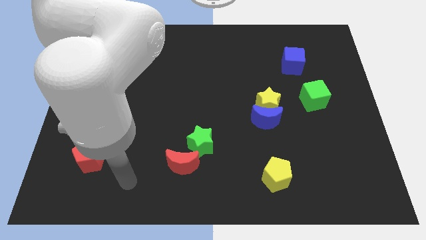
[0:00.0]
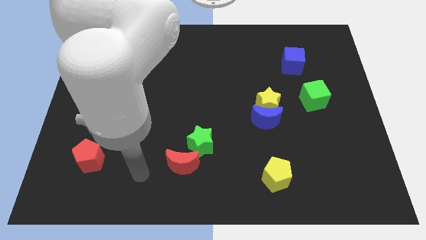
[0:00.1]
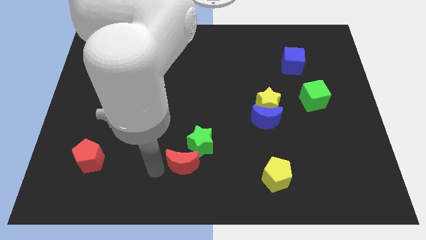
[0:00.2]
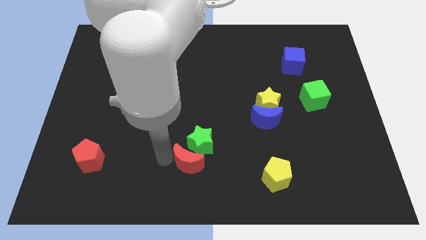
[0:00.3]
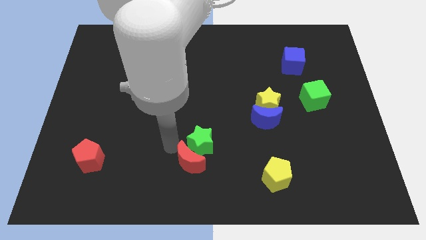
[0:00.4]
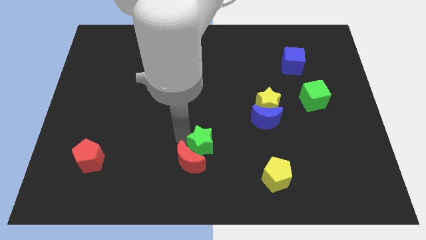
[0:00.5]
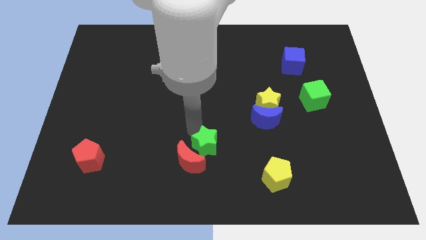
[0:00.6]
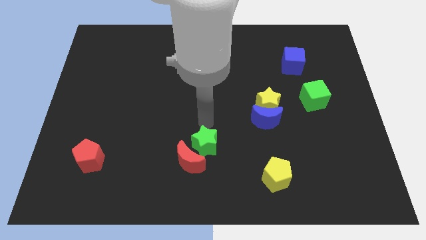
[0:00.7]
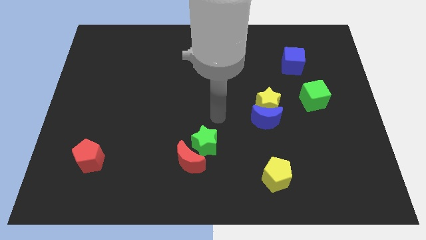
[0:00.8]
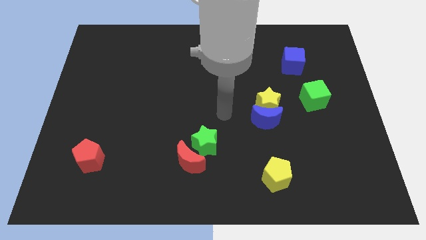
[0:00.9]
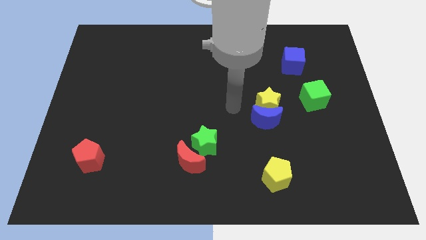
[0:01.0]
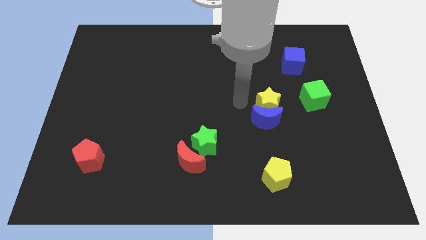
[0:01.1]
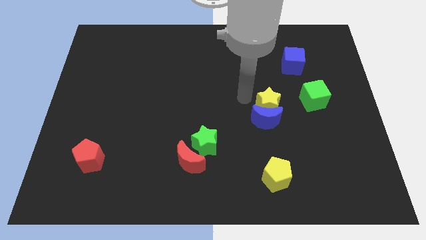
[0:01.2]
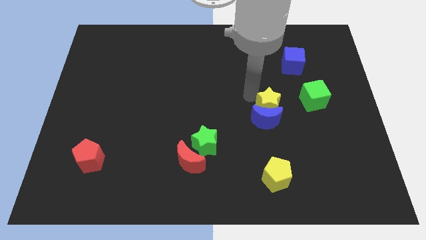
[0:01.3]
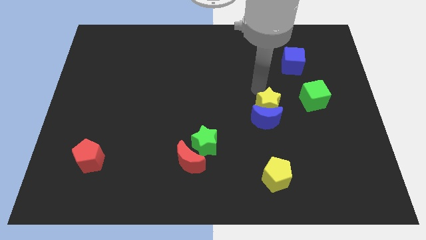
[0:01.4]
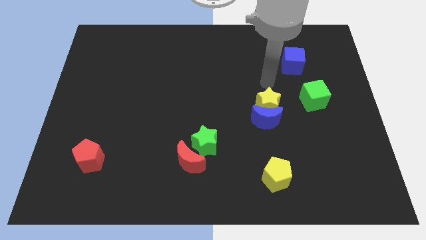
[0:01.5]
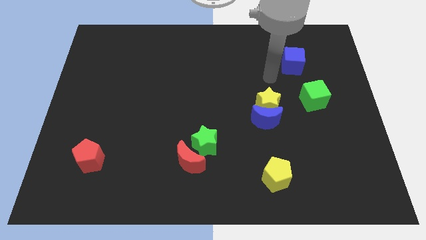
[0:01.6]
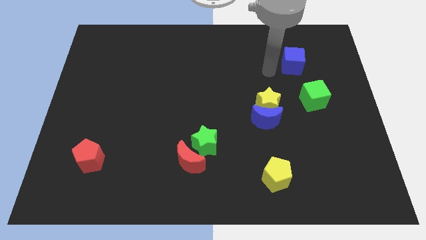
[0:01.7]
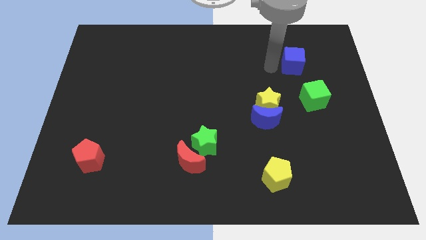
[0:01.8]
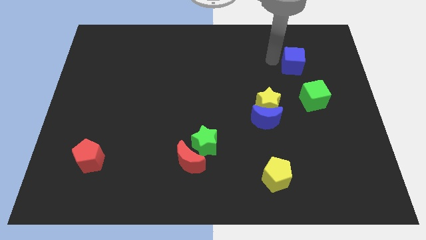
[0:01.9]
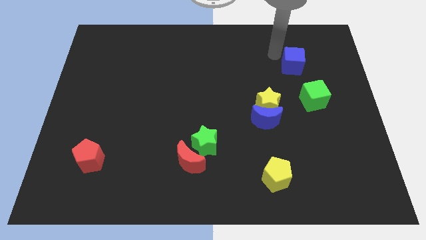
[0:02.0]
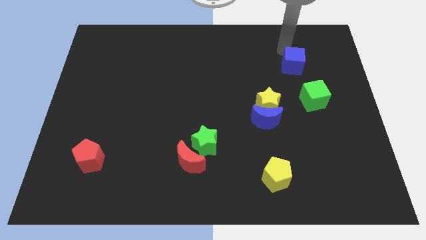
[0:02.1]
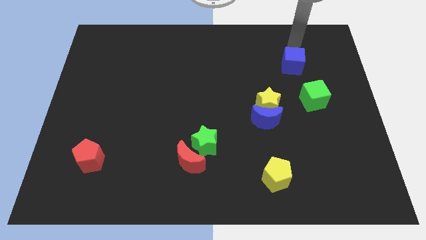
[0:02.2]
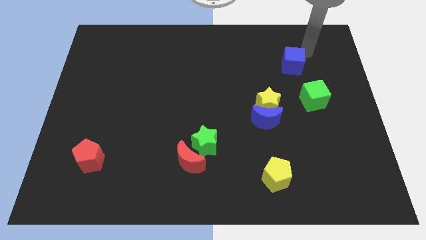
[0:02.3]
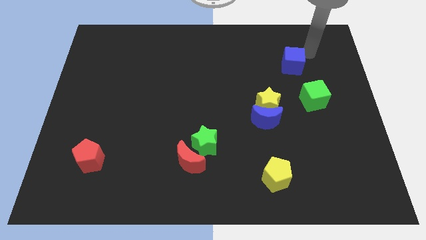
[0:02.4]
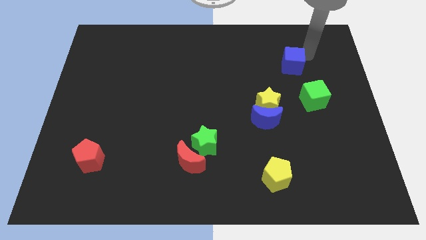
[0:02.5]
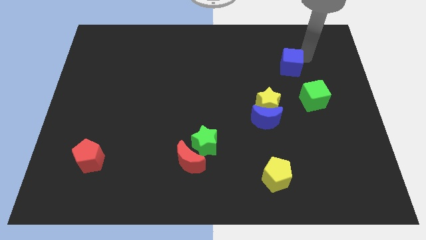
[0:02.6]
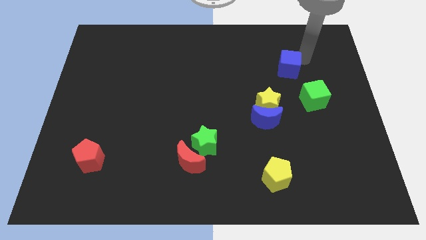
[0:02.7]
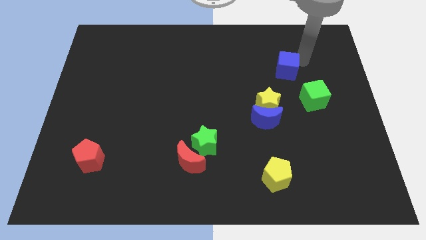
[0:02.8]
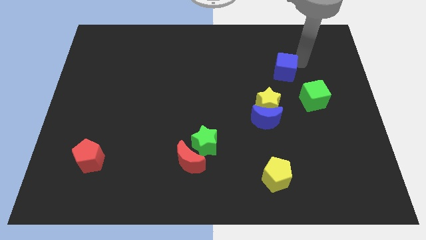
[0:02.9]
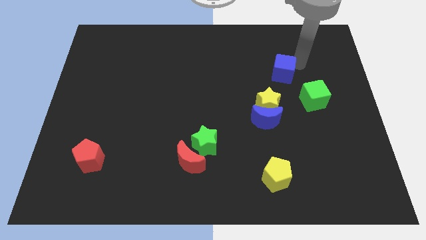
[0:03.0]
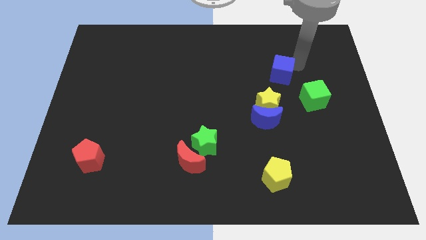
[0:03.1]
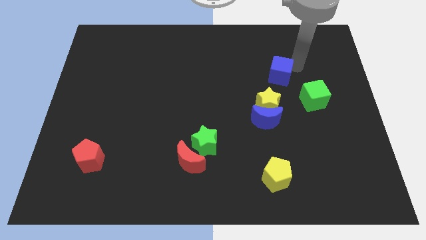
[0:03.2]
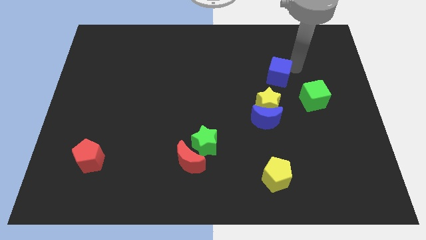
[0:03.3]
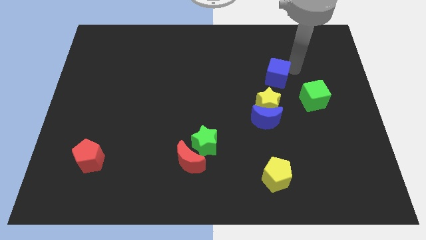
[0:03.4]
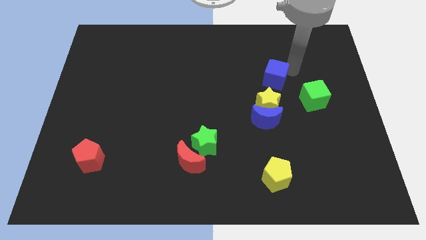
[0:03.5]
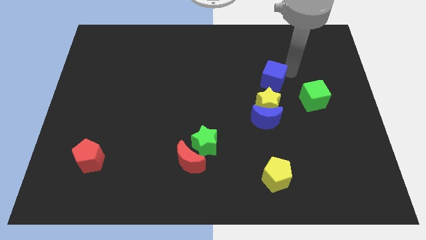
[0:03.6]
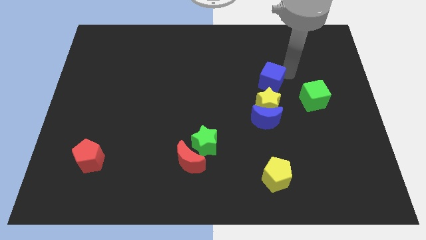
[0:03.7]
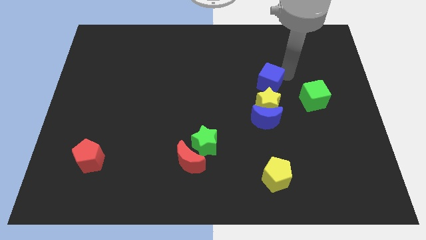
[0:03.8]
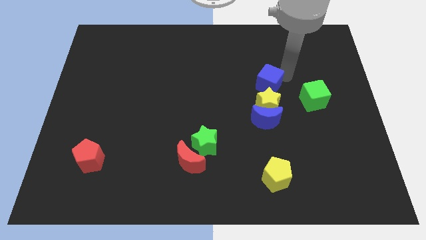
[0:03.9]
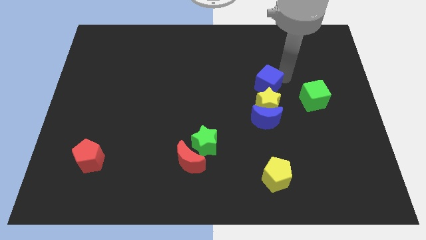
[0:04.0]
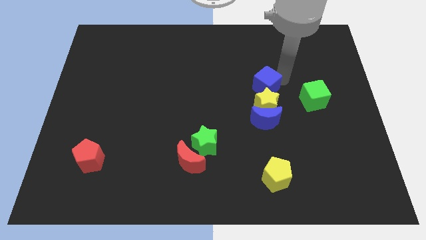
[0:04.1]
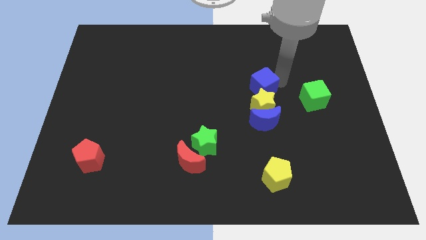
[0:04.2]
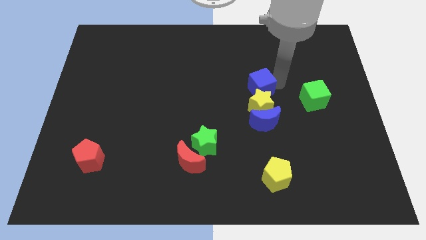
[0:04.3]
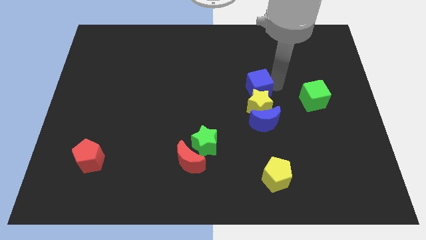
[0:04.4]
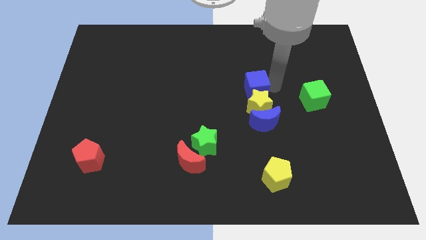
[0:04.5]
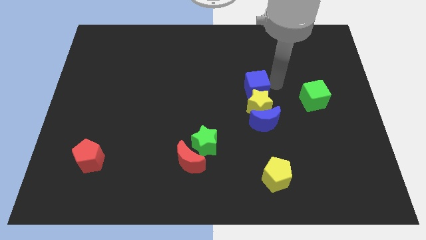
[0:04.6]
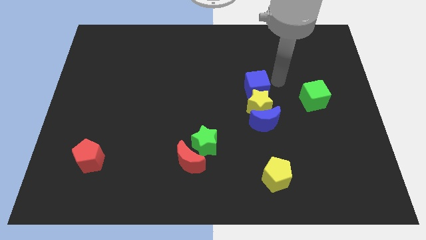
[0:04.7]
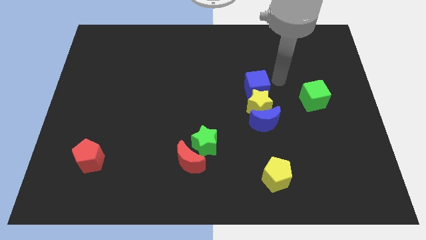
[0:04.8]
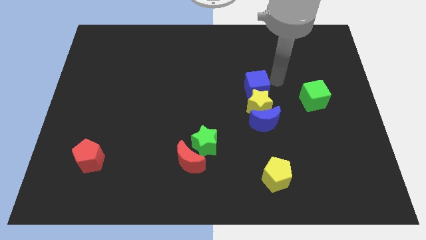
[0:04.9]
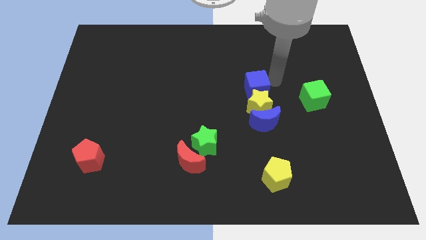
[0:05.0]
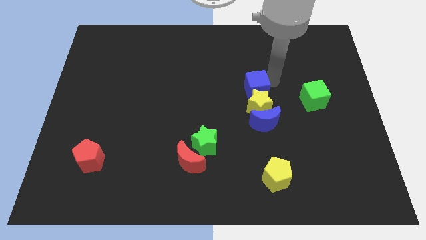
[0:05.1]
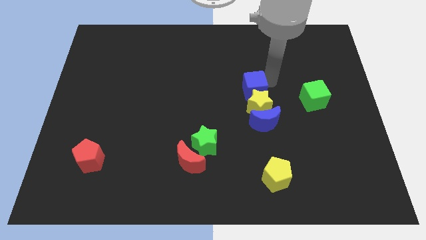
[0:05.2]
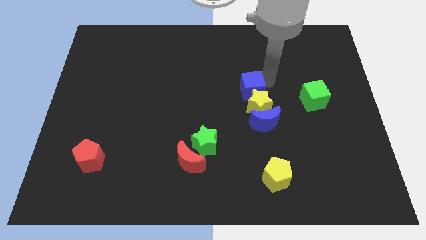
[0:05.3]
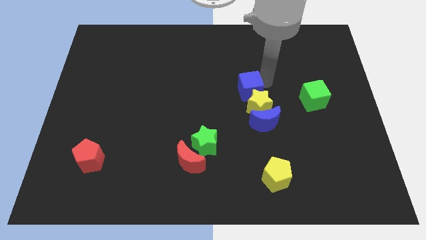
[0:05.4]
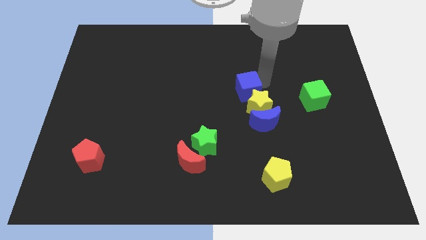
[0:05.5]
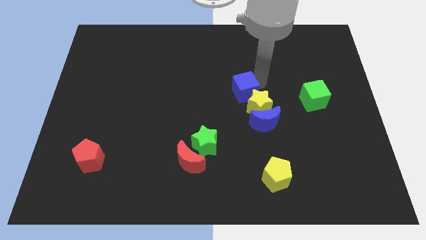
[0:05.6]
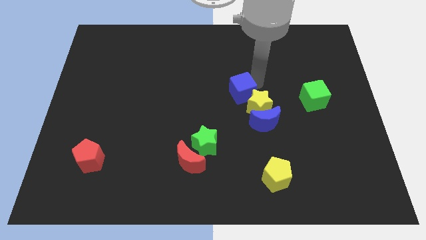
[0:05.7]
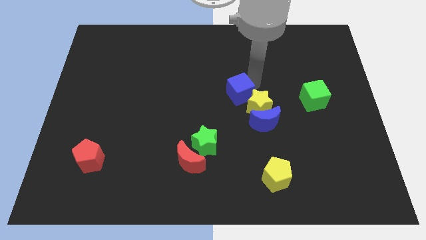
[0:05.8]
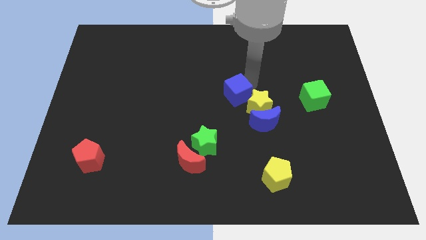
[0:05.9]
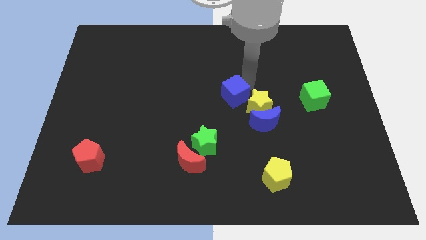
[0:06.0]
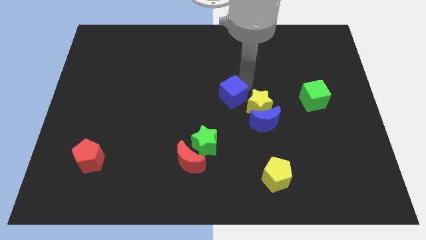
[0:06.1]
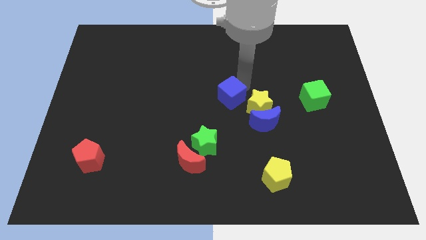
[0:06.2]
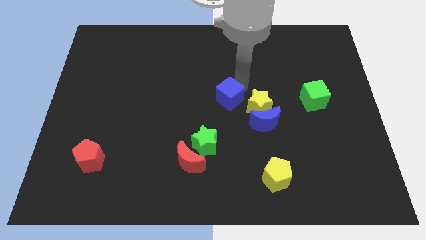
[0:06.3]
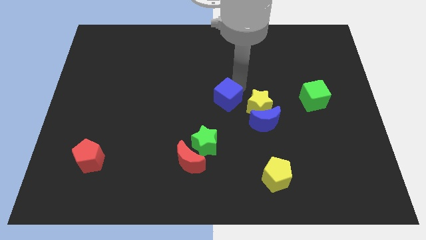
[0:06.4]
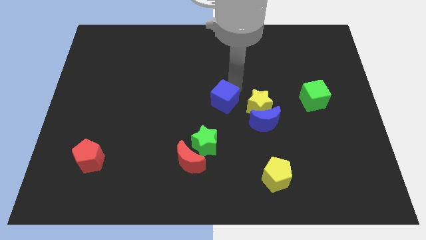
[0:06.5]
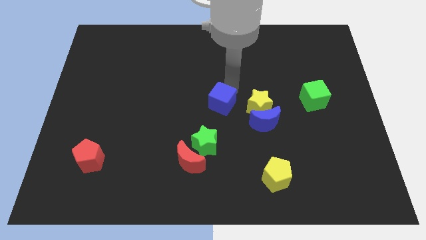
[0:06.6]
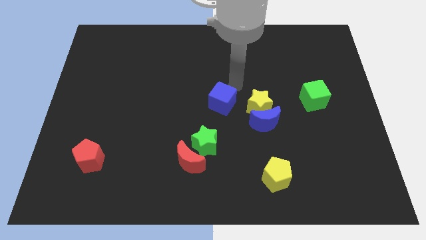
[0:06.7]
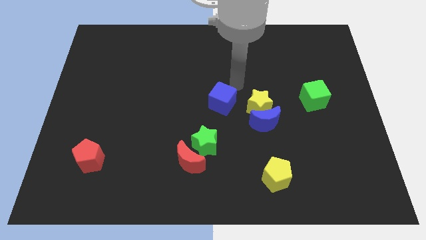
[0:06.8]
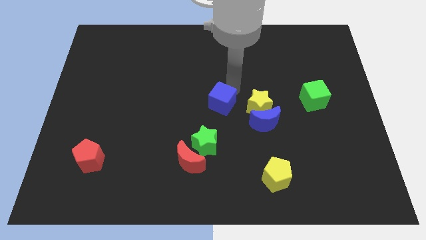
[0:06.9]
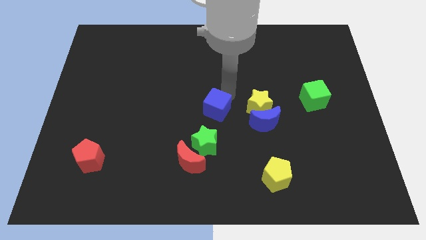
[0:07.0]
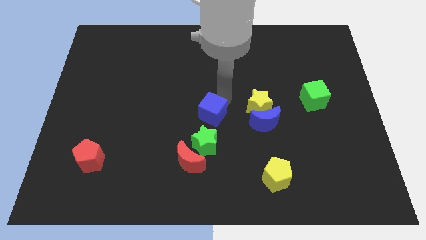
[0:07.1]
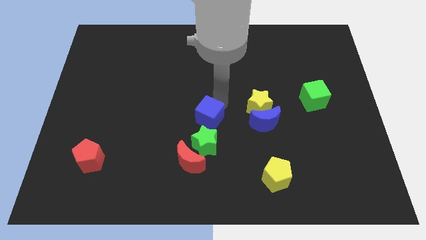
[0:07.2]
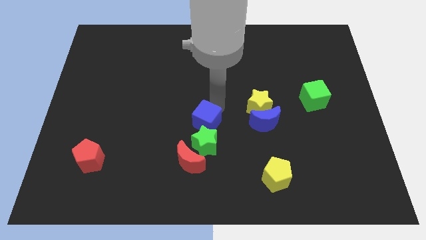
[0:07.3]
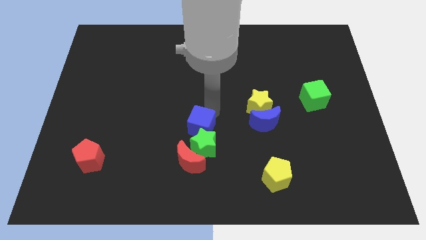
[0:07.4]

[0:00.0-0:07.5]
move the blue cube towards the green star

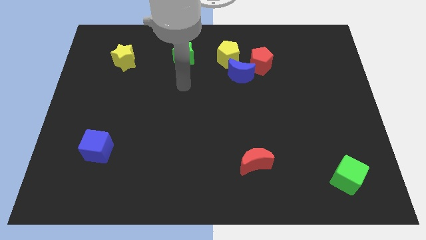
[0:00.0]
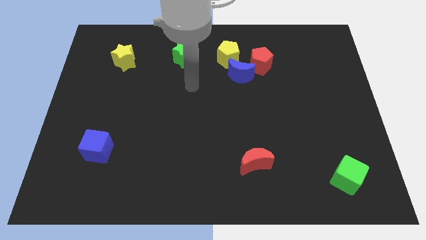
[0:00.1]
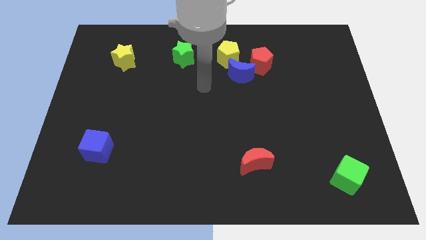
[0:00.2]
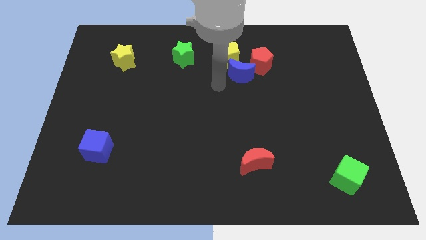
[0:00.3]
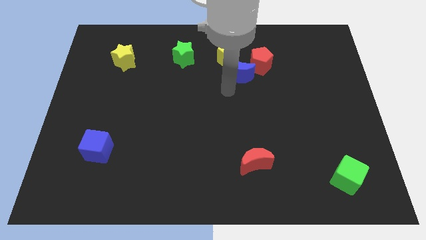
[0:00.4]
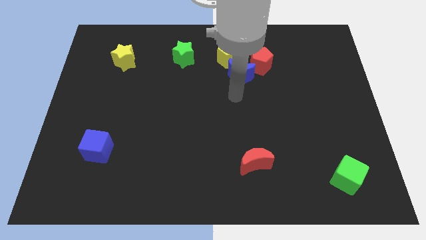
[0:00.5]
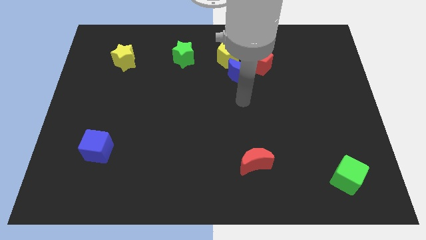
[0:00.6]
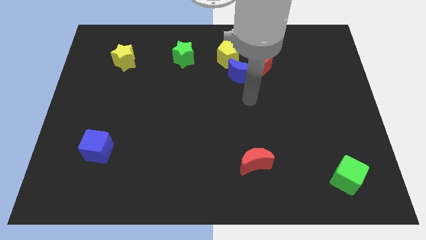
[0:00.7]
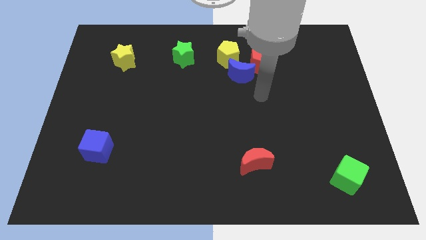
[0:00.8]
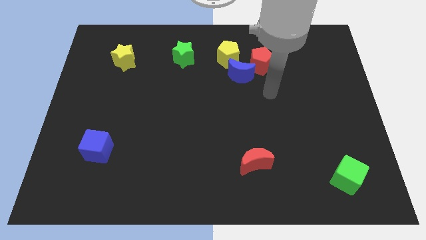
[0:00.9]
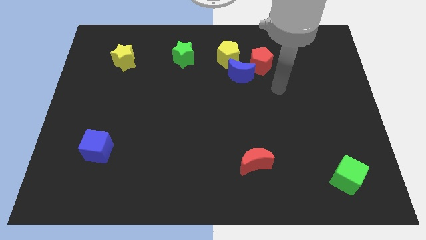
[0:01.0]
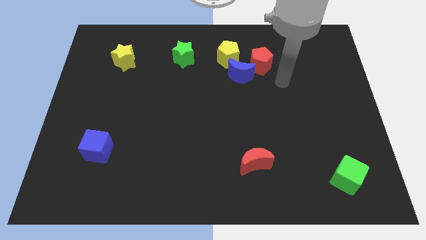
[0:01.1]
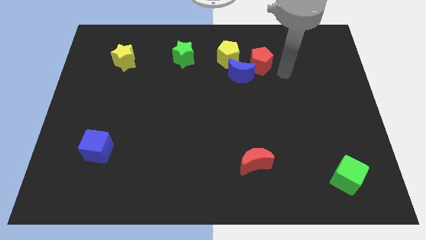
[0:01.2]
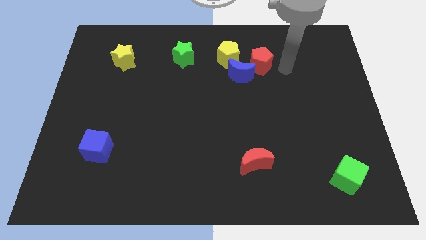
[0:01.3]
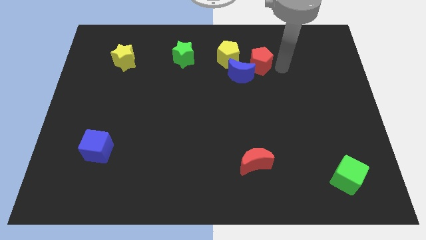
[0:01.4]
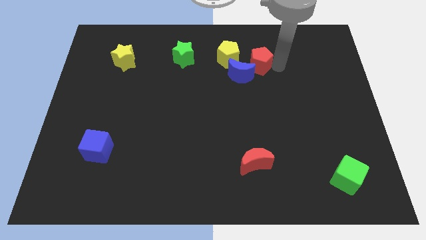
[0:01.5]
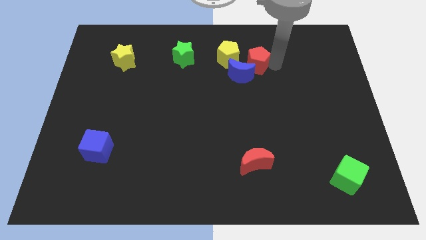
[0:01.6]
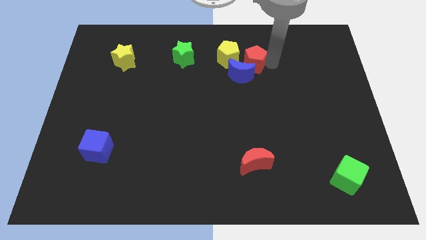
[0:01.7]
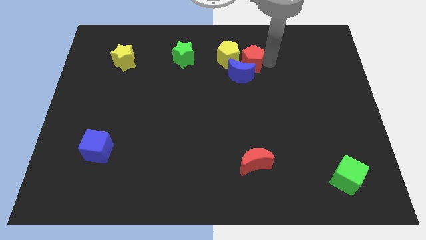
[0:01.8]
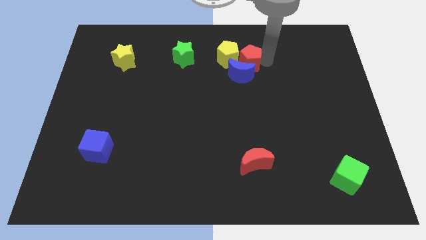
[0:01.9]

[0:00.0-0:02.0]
slide the red pentagon close to the yellow pentagon
